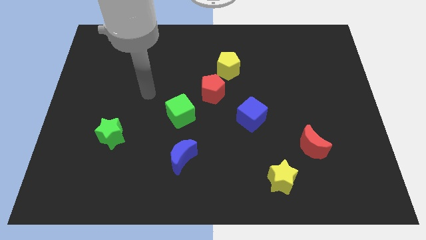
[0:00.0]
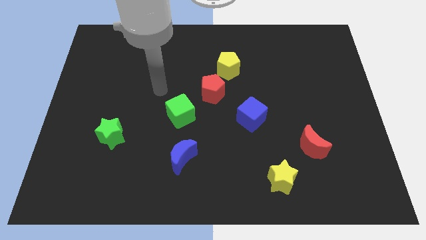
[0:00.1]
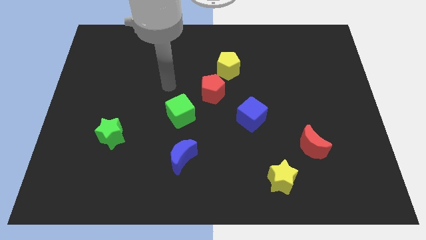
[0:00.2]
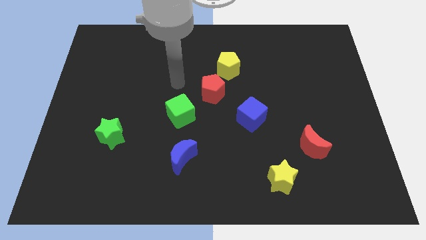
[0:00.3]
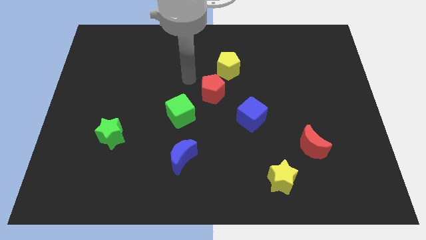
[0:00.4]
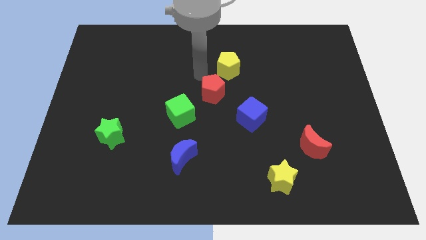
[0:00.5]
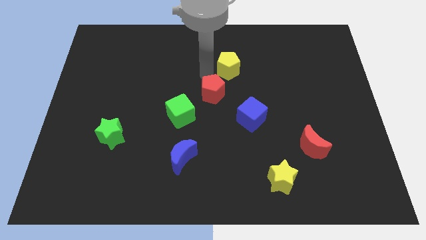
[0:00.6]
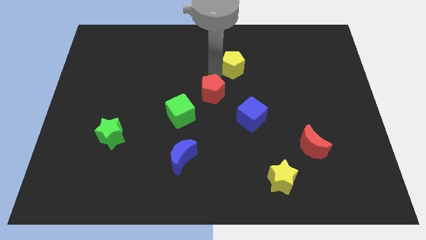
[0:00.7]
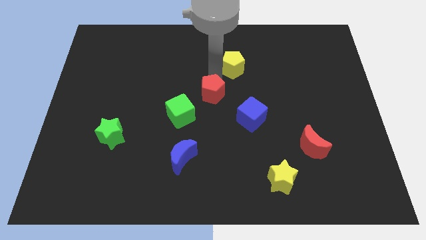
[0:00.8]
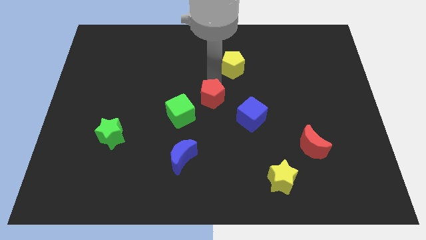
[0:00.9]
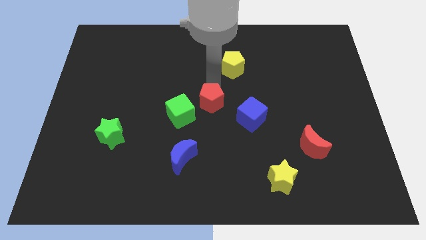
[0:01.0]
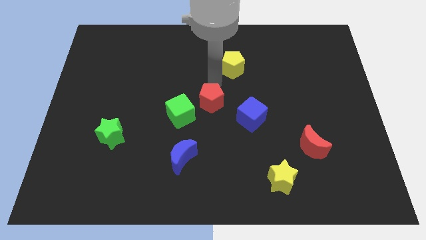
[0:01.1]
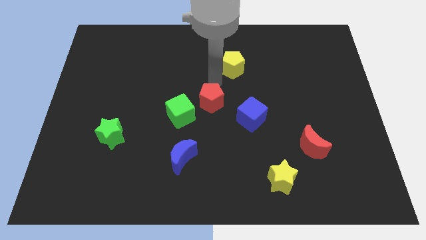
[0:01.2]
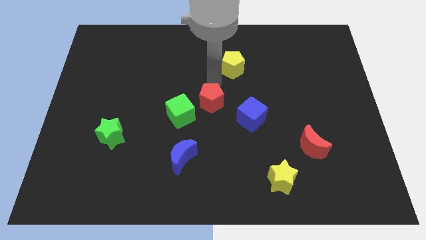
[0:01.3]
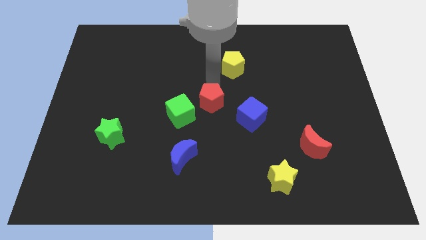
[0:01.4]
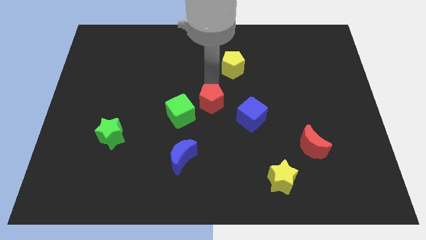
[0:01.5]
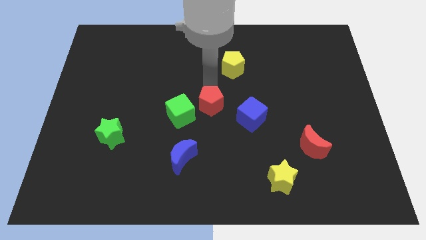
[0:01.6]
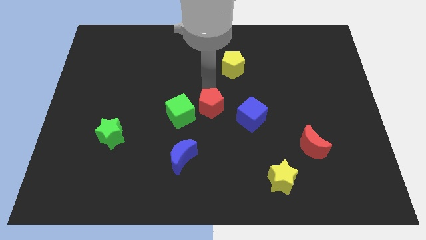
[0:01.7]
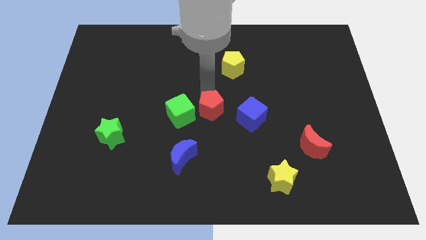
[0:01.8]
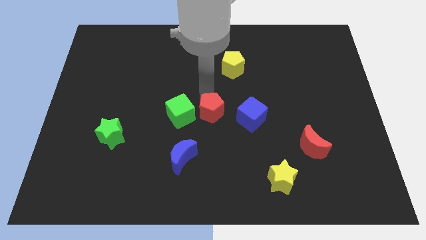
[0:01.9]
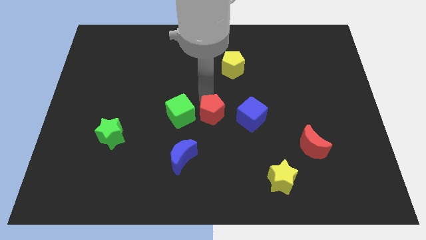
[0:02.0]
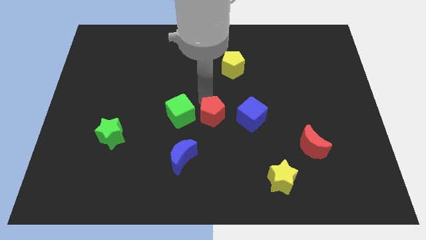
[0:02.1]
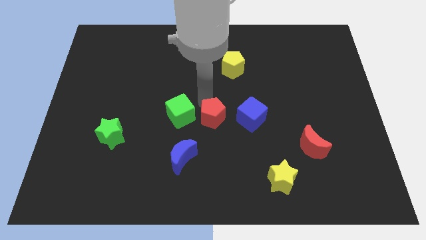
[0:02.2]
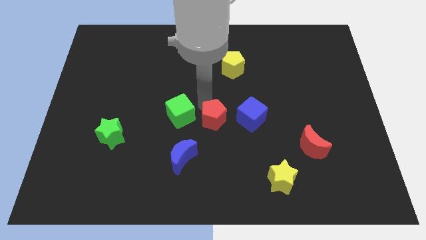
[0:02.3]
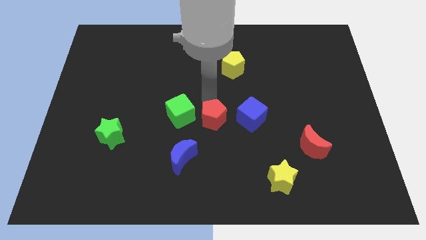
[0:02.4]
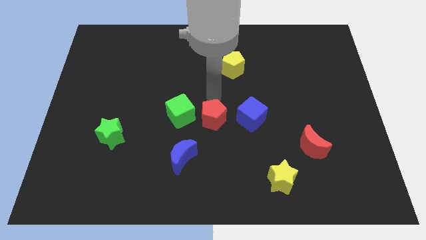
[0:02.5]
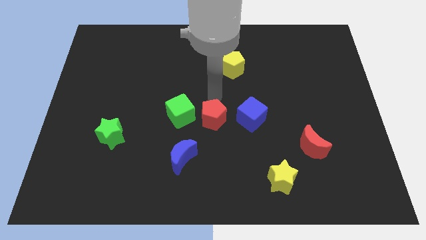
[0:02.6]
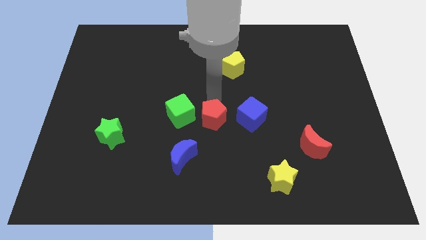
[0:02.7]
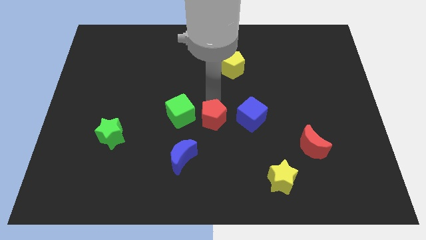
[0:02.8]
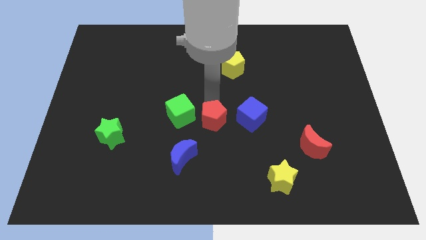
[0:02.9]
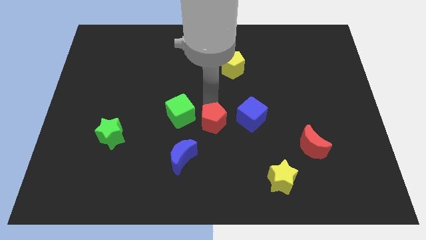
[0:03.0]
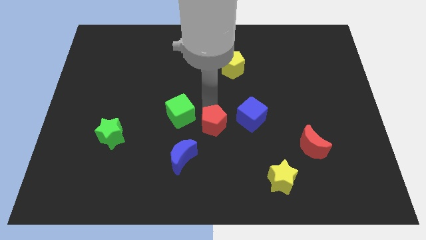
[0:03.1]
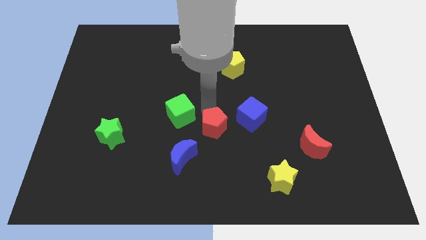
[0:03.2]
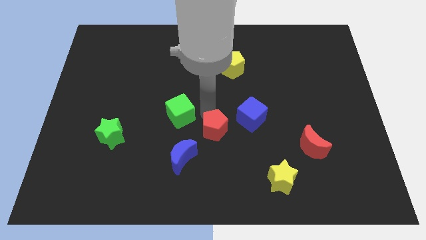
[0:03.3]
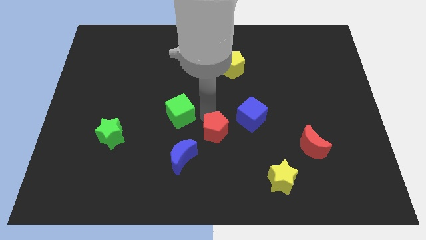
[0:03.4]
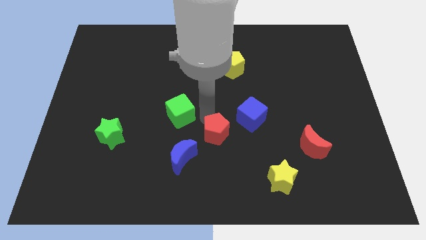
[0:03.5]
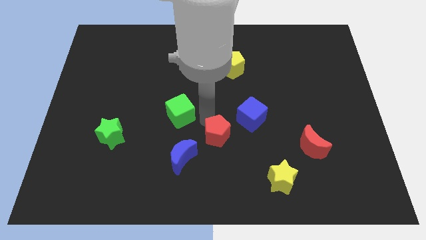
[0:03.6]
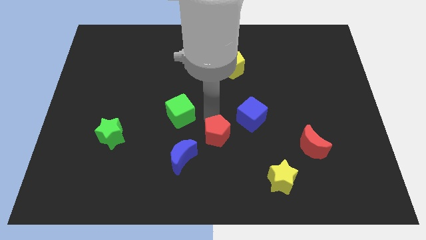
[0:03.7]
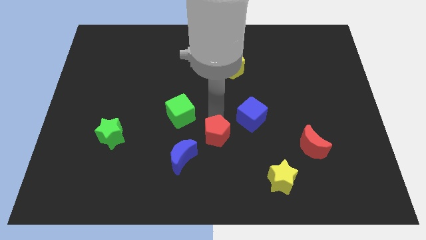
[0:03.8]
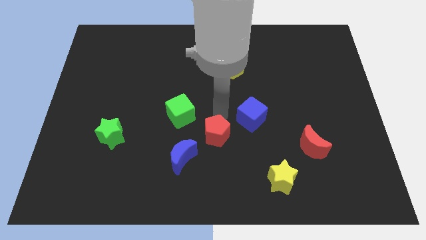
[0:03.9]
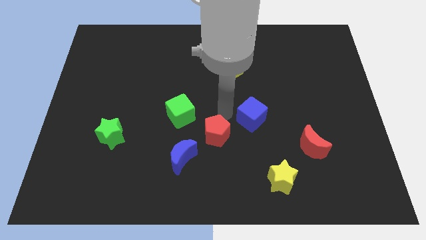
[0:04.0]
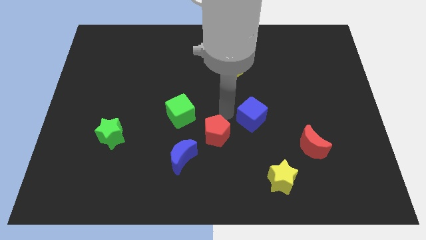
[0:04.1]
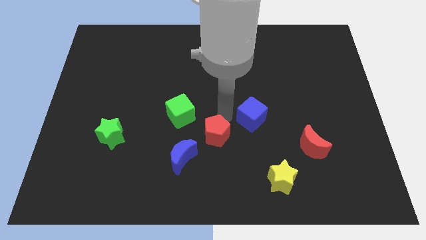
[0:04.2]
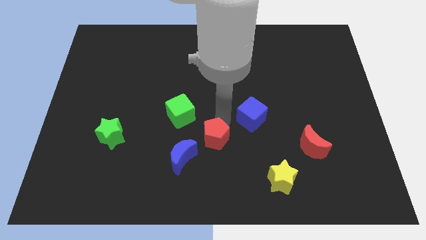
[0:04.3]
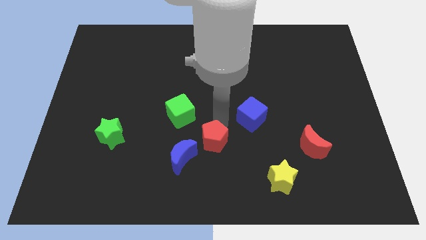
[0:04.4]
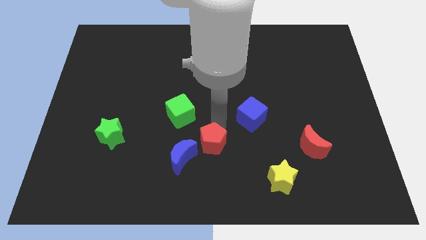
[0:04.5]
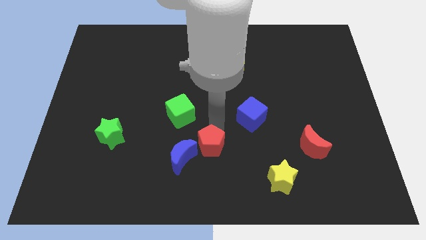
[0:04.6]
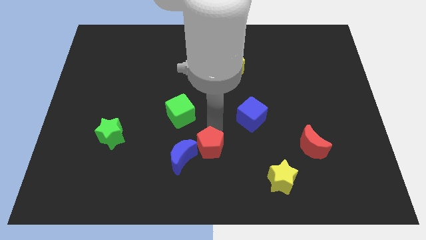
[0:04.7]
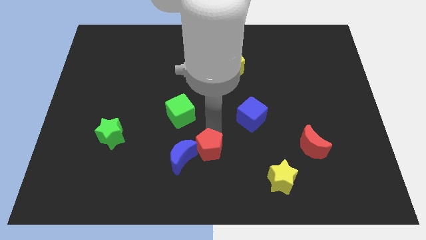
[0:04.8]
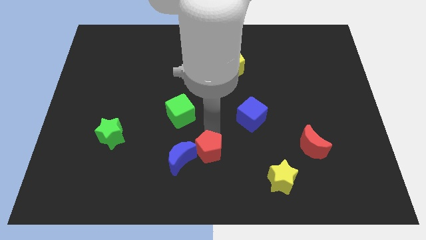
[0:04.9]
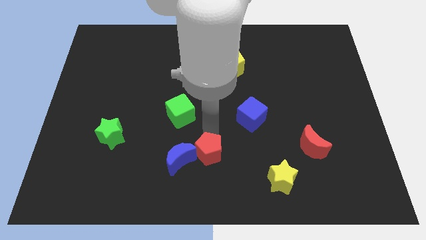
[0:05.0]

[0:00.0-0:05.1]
put the red pentagon to the bottom

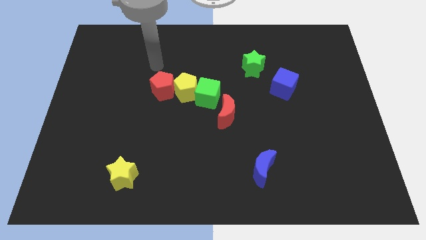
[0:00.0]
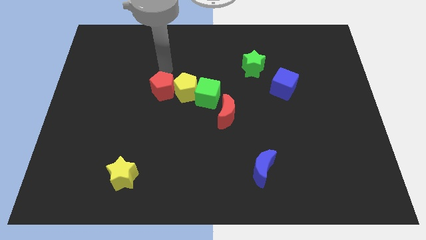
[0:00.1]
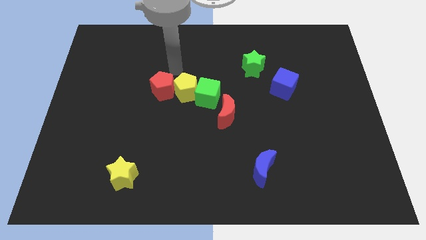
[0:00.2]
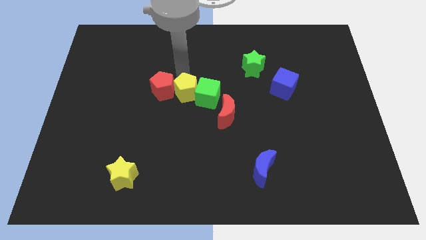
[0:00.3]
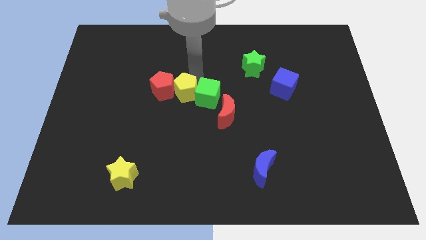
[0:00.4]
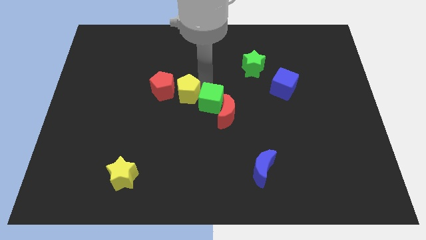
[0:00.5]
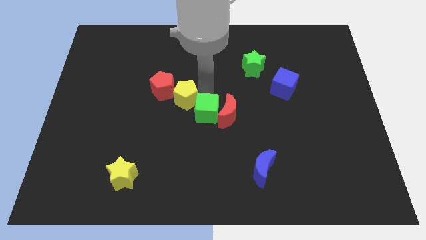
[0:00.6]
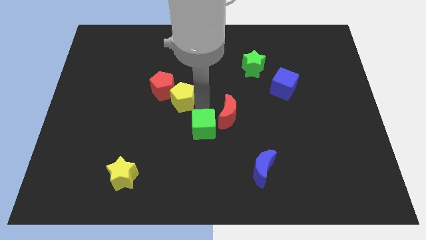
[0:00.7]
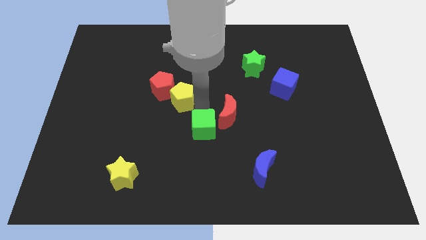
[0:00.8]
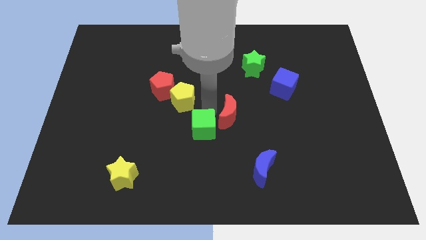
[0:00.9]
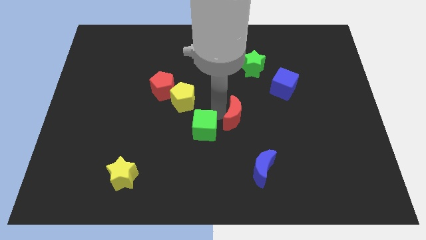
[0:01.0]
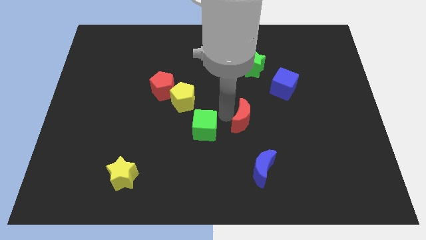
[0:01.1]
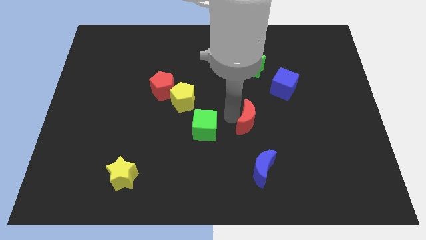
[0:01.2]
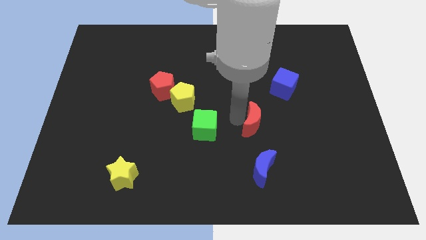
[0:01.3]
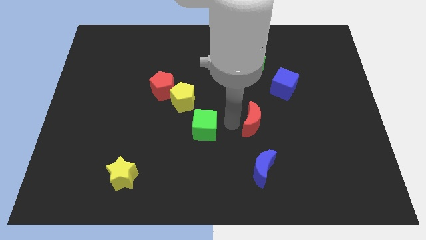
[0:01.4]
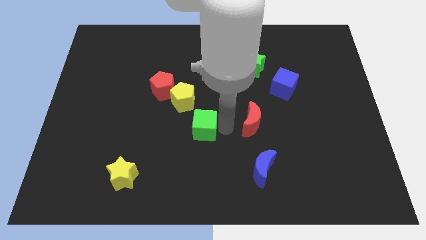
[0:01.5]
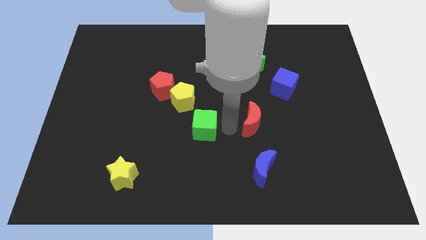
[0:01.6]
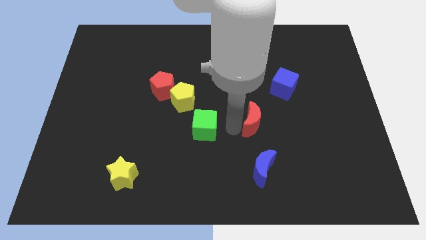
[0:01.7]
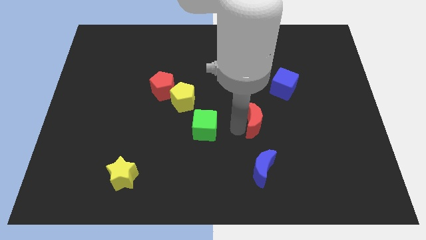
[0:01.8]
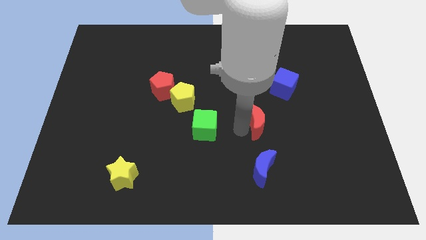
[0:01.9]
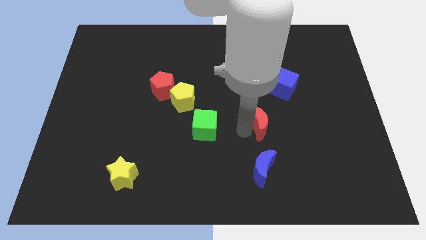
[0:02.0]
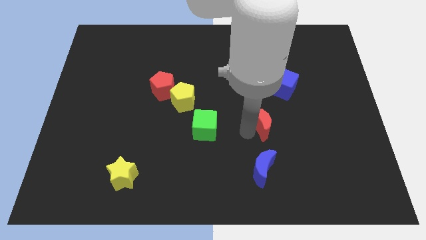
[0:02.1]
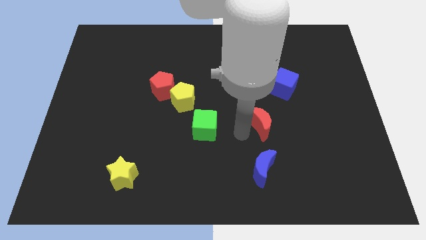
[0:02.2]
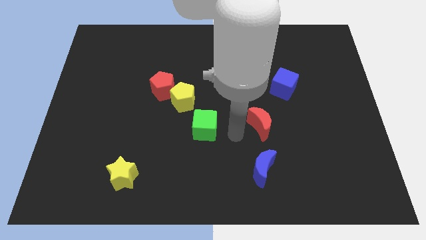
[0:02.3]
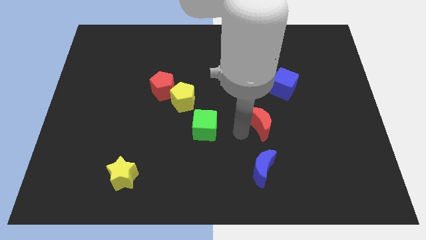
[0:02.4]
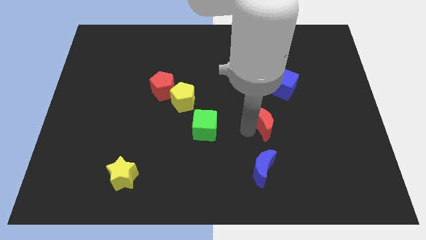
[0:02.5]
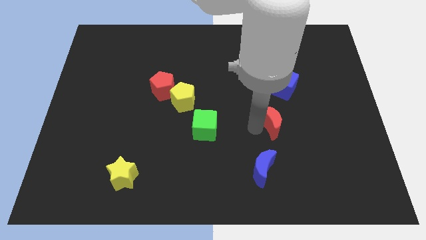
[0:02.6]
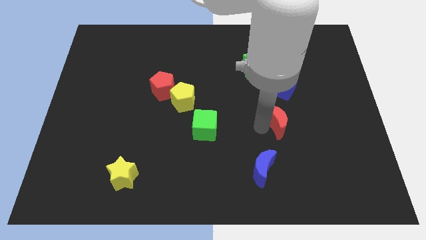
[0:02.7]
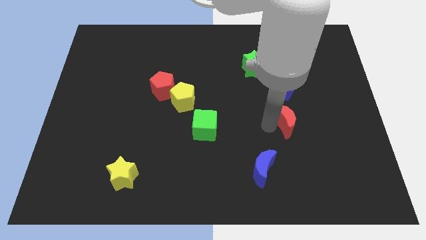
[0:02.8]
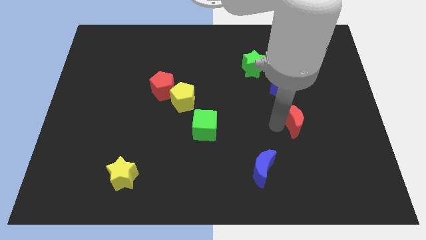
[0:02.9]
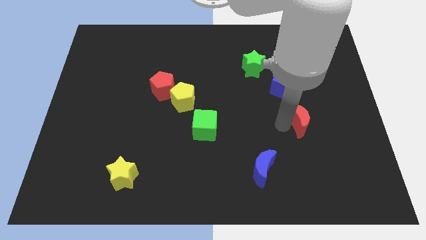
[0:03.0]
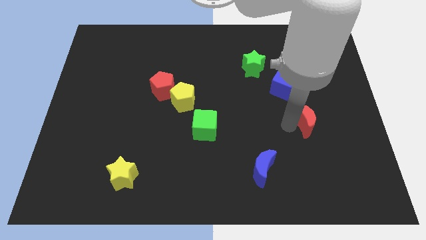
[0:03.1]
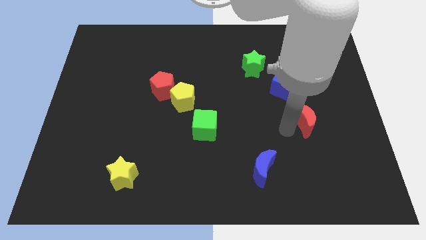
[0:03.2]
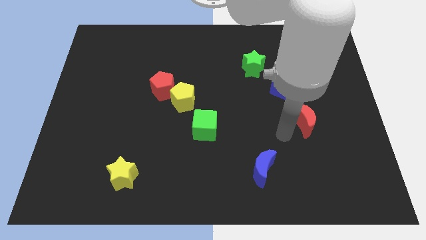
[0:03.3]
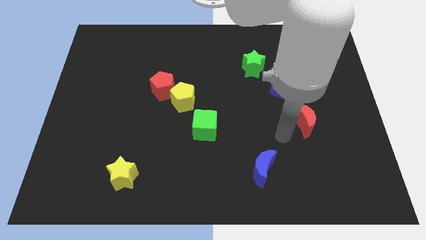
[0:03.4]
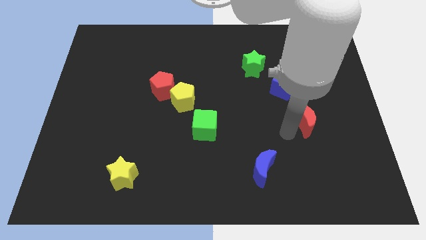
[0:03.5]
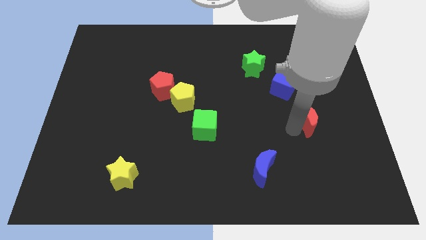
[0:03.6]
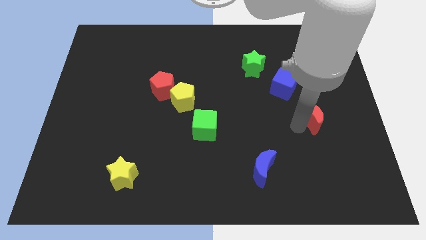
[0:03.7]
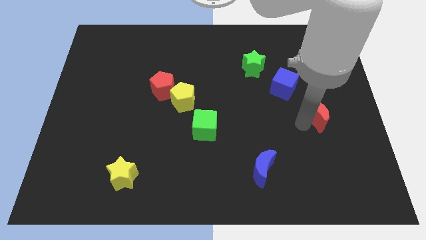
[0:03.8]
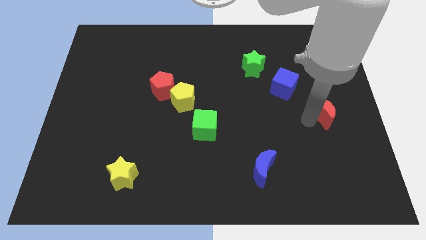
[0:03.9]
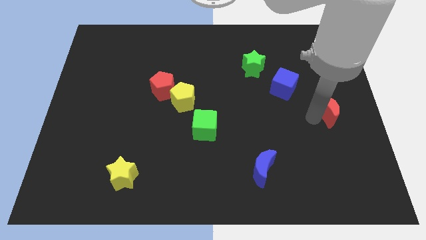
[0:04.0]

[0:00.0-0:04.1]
move the red moon to the center right
